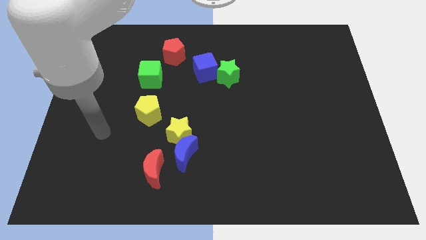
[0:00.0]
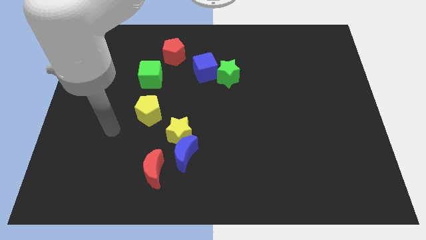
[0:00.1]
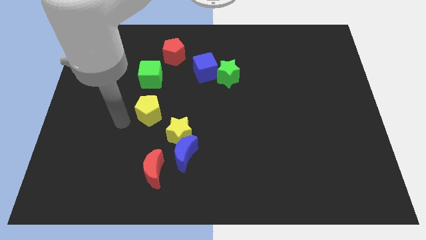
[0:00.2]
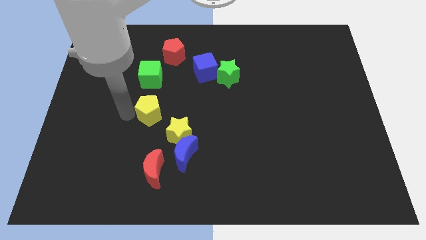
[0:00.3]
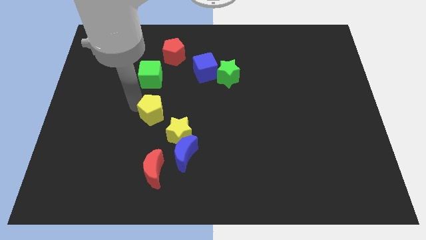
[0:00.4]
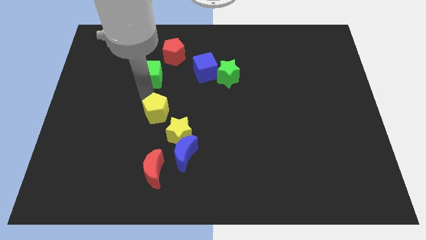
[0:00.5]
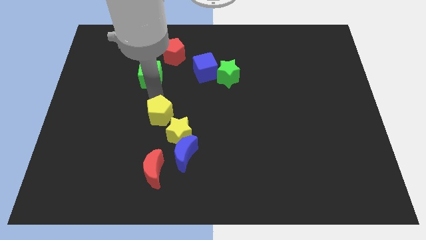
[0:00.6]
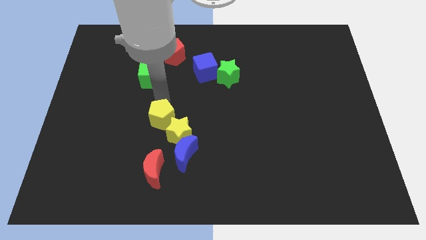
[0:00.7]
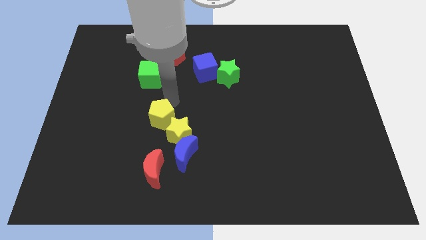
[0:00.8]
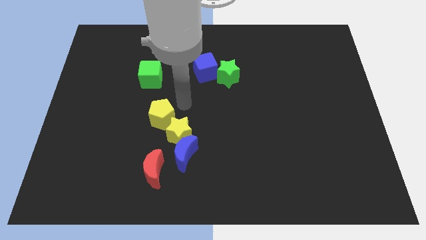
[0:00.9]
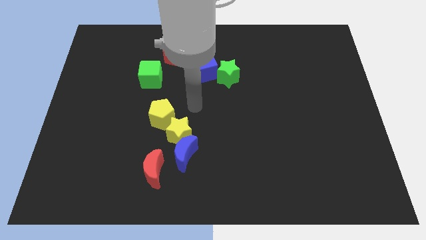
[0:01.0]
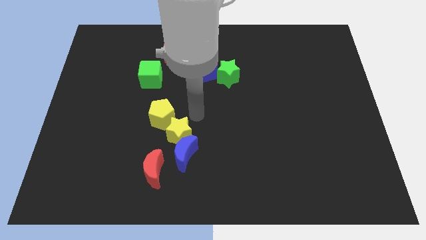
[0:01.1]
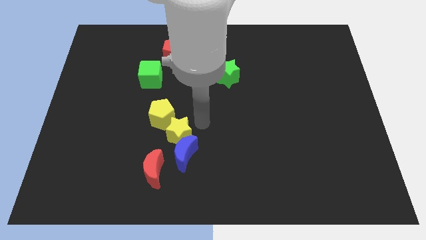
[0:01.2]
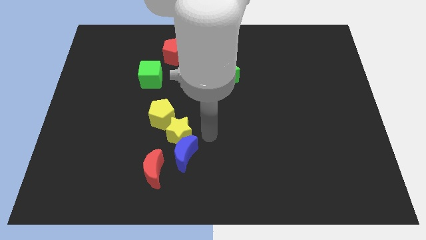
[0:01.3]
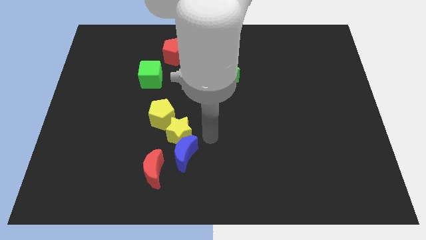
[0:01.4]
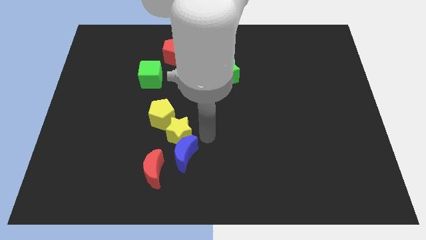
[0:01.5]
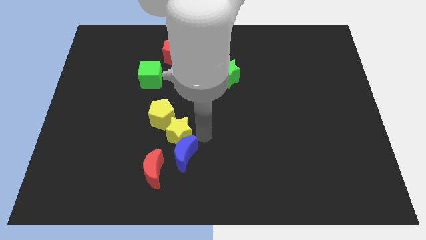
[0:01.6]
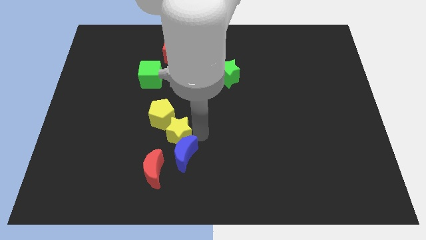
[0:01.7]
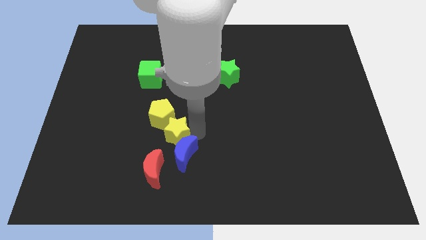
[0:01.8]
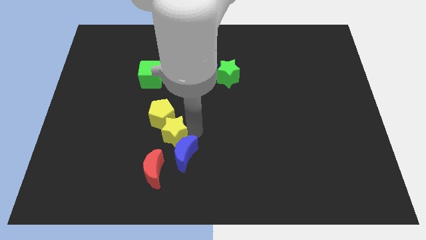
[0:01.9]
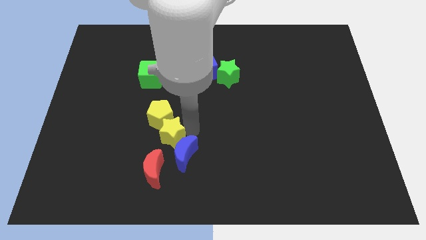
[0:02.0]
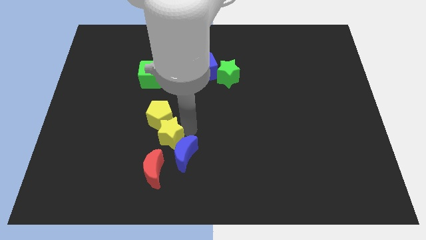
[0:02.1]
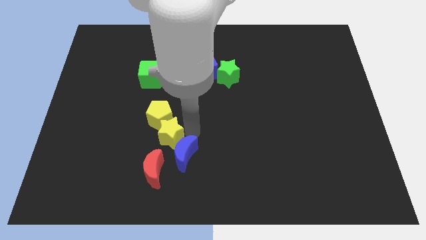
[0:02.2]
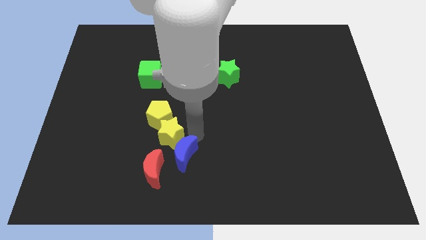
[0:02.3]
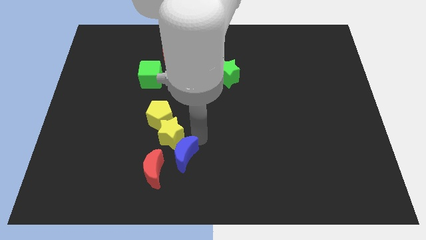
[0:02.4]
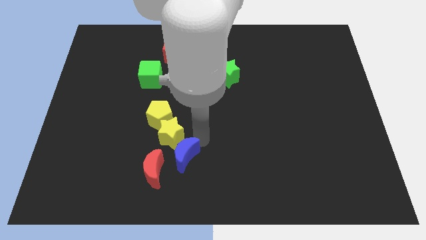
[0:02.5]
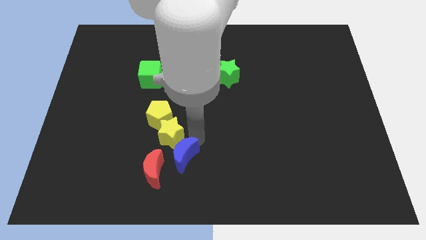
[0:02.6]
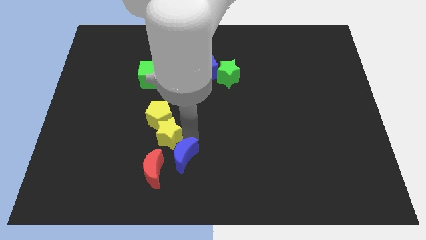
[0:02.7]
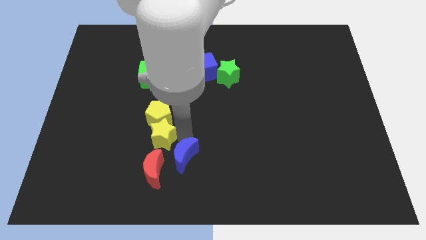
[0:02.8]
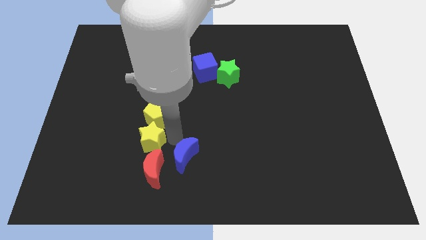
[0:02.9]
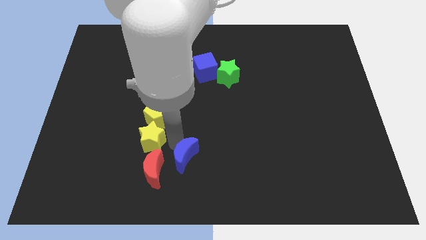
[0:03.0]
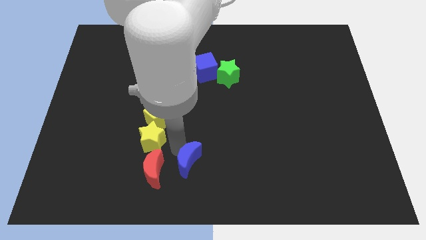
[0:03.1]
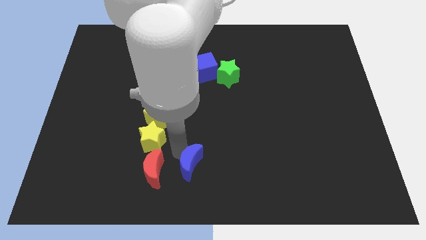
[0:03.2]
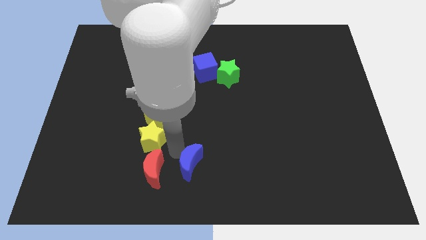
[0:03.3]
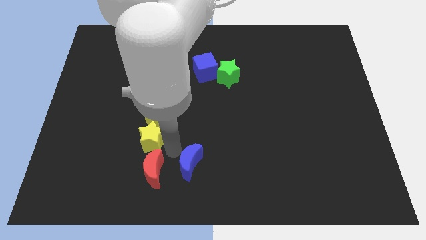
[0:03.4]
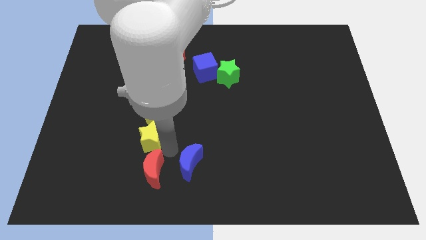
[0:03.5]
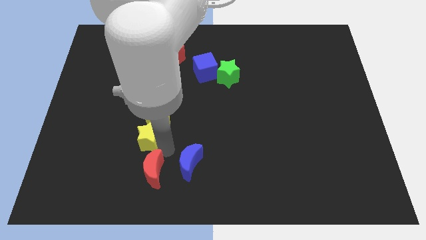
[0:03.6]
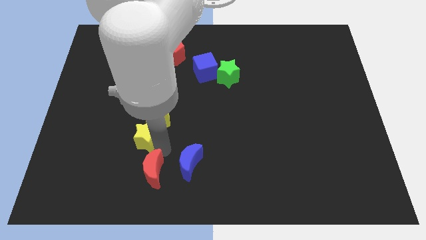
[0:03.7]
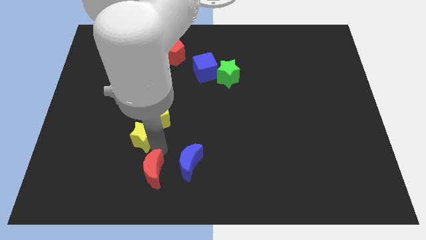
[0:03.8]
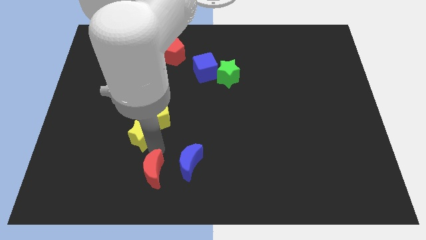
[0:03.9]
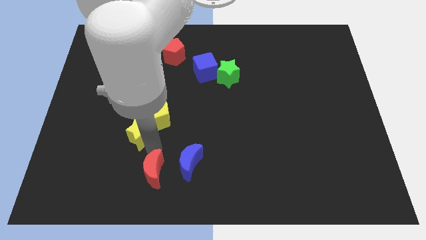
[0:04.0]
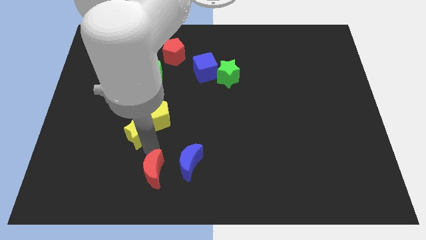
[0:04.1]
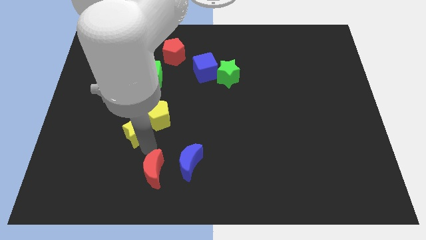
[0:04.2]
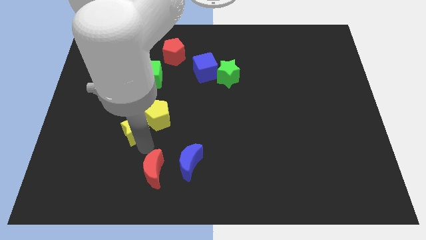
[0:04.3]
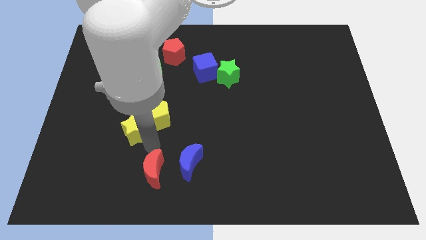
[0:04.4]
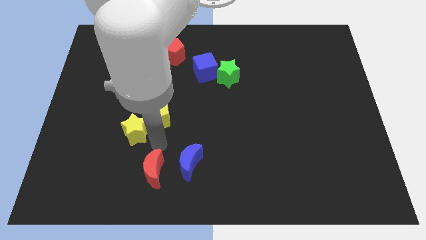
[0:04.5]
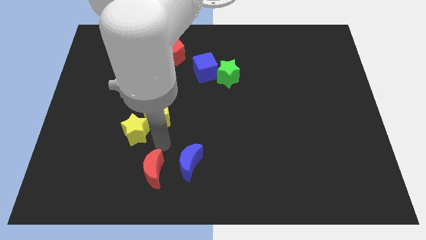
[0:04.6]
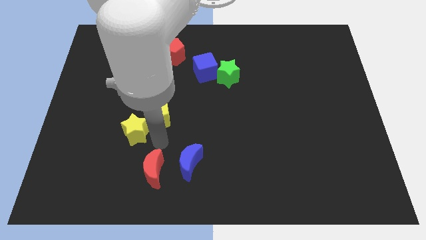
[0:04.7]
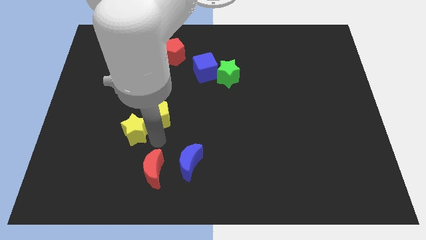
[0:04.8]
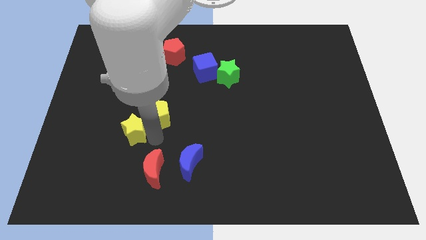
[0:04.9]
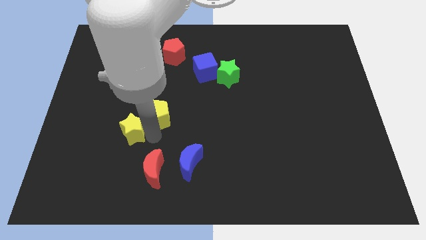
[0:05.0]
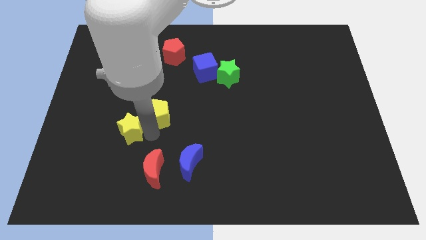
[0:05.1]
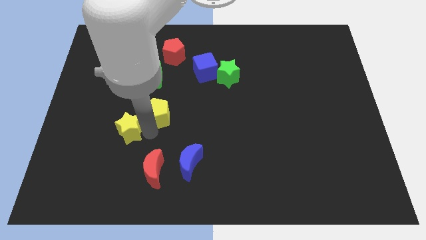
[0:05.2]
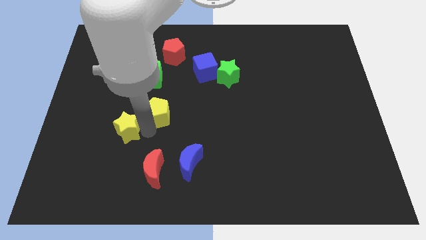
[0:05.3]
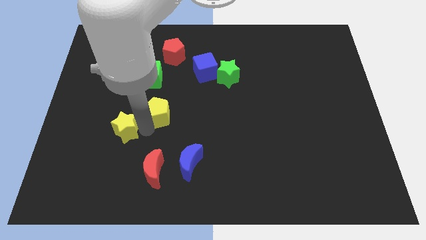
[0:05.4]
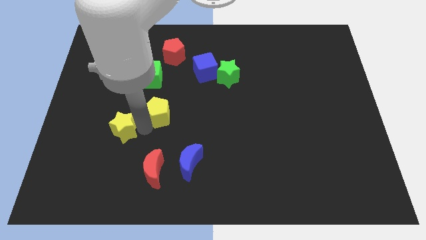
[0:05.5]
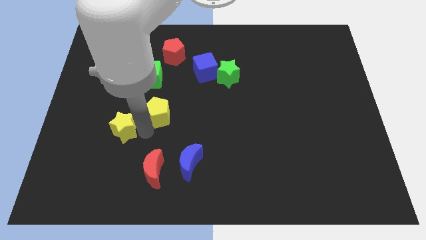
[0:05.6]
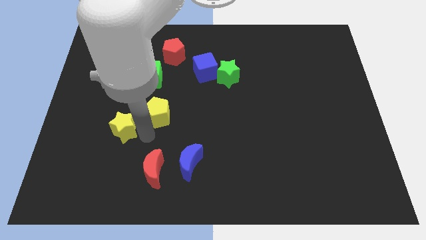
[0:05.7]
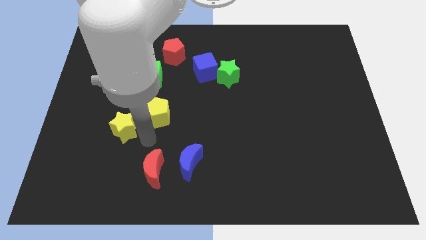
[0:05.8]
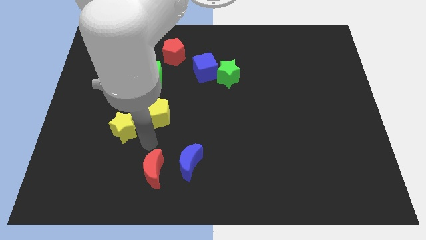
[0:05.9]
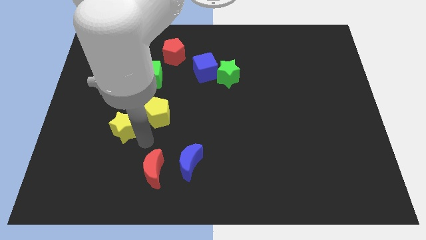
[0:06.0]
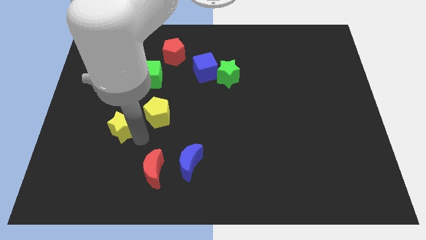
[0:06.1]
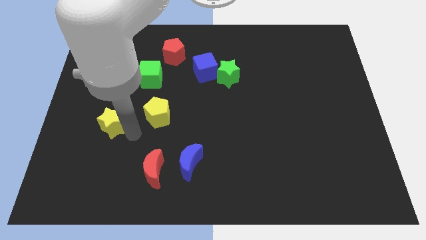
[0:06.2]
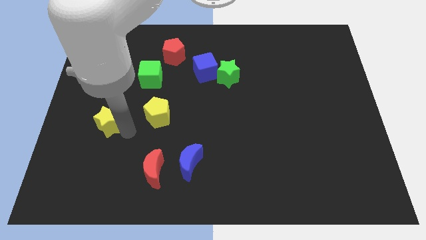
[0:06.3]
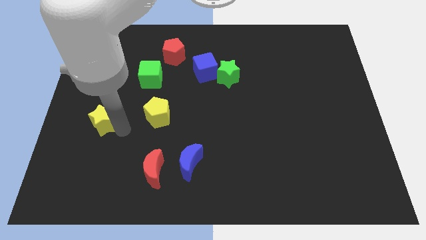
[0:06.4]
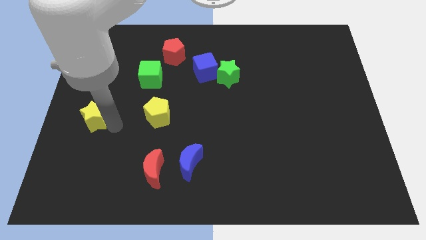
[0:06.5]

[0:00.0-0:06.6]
move the yellow star to the left side
